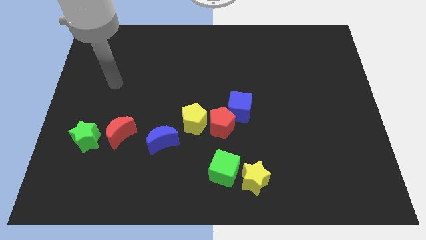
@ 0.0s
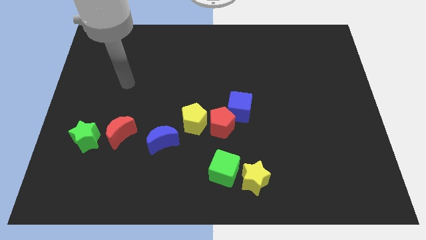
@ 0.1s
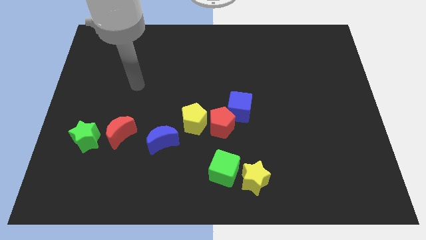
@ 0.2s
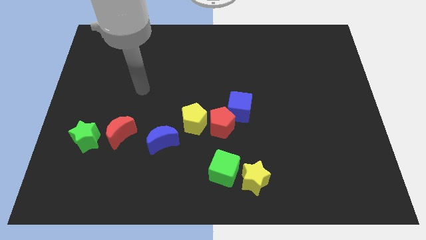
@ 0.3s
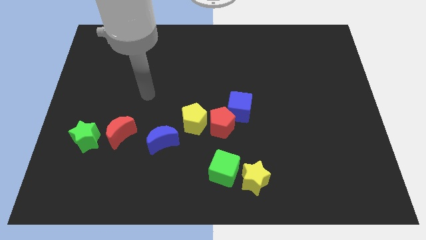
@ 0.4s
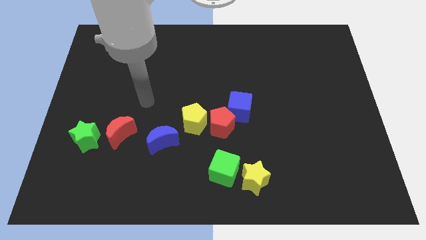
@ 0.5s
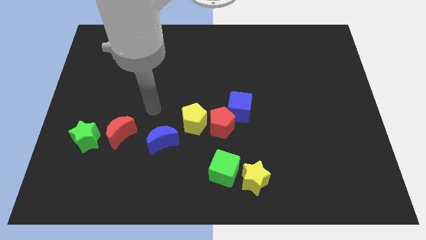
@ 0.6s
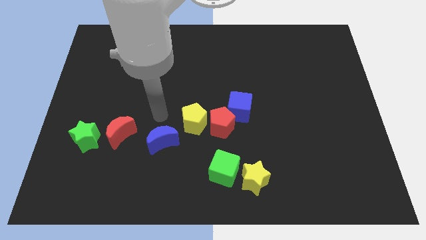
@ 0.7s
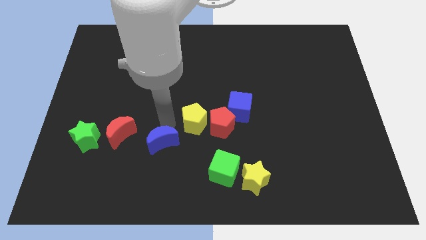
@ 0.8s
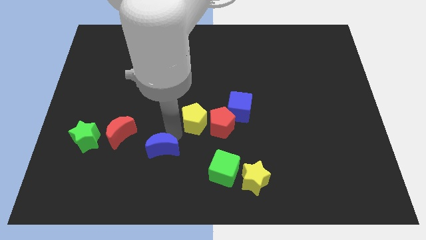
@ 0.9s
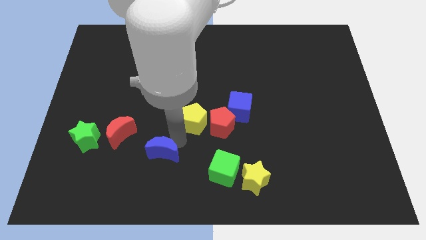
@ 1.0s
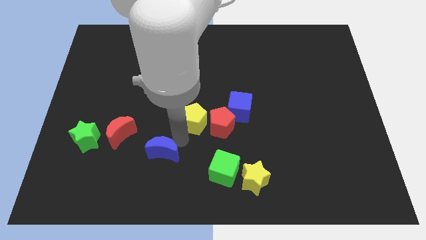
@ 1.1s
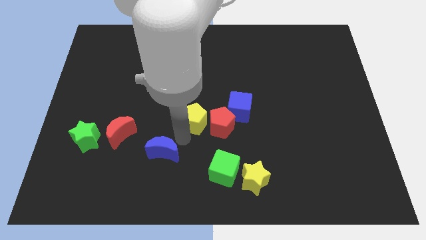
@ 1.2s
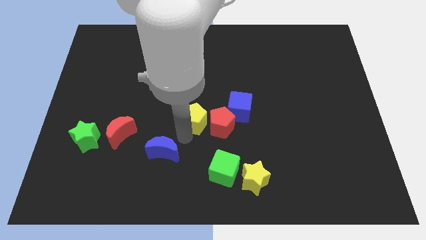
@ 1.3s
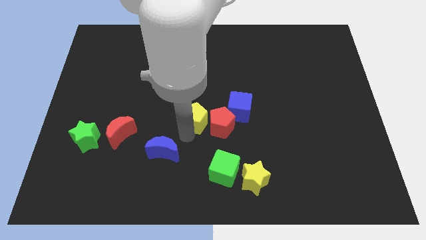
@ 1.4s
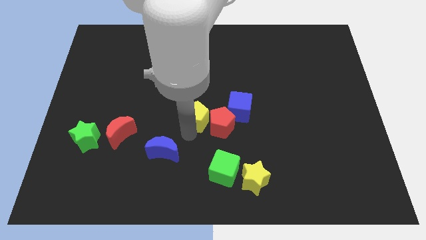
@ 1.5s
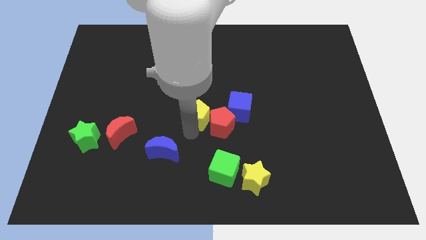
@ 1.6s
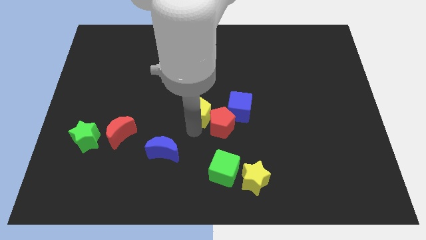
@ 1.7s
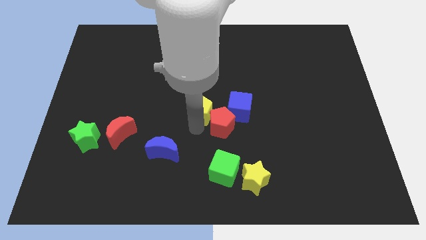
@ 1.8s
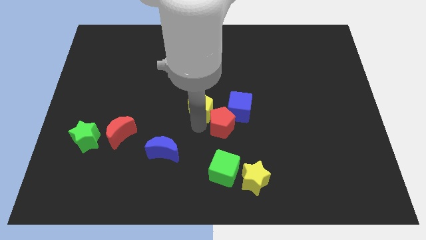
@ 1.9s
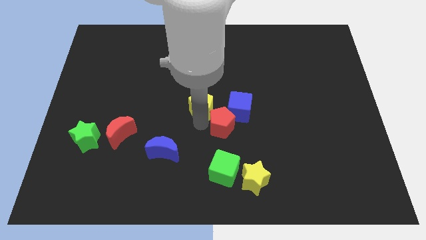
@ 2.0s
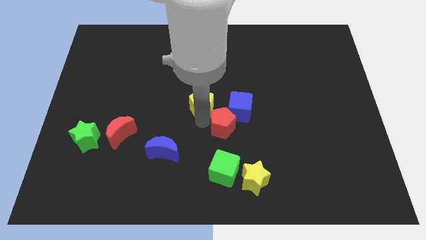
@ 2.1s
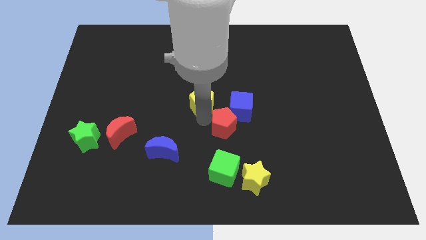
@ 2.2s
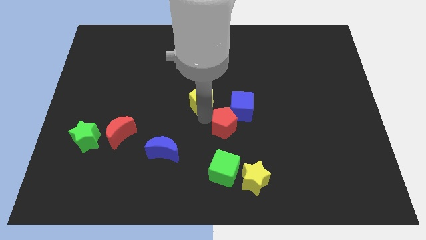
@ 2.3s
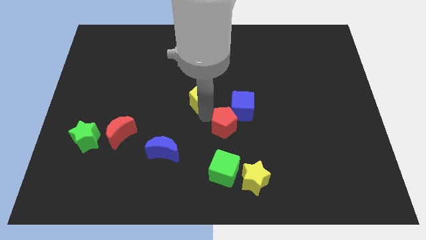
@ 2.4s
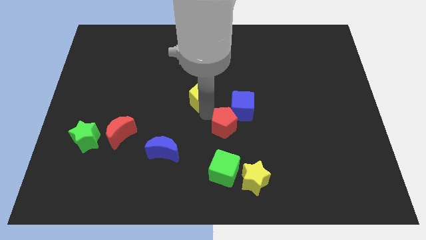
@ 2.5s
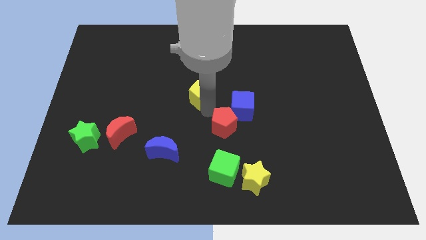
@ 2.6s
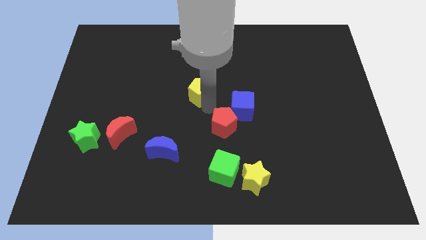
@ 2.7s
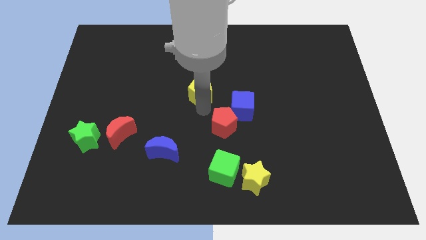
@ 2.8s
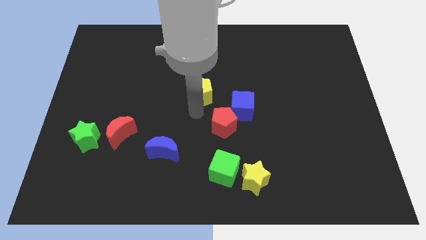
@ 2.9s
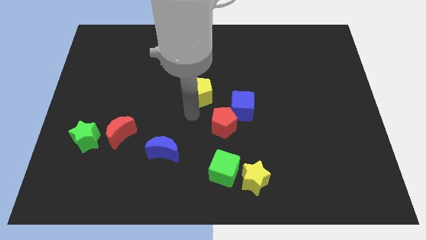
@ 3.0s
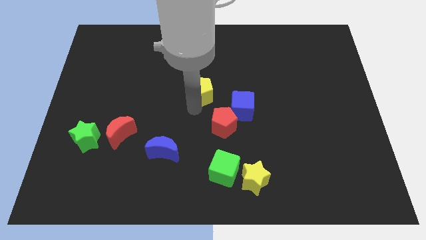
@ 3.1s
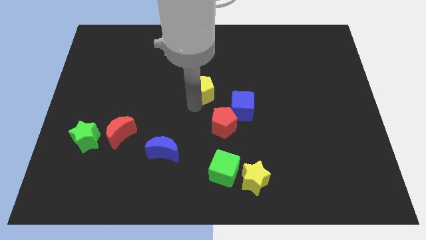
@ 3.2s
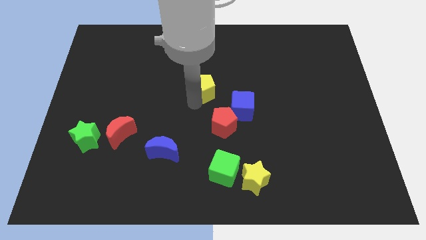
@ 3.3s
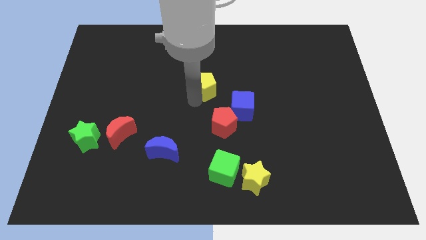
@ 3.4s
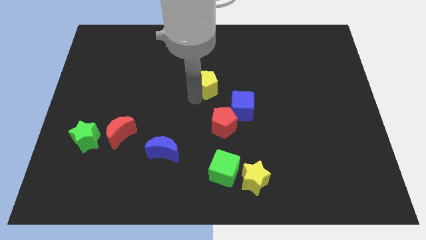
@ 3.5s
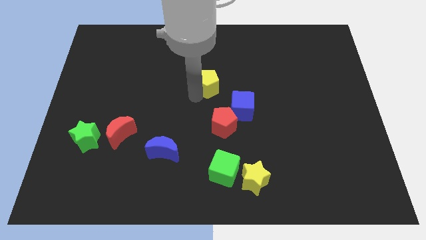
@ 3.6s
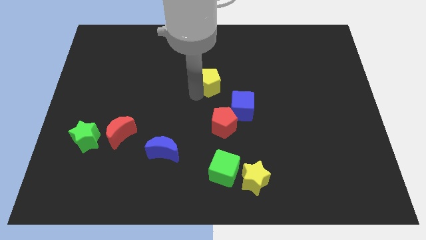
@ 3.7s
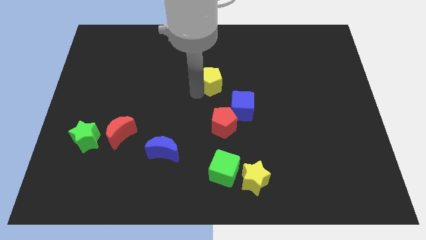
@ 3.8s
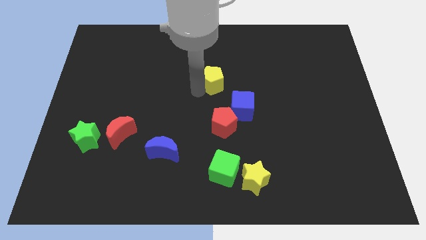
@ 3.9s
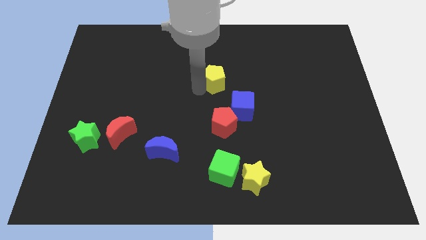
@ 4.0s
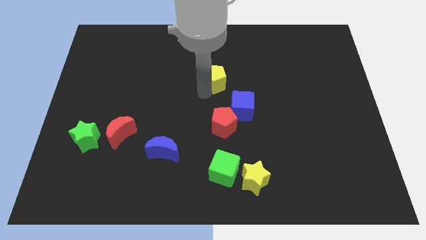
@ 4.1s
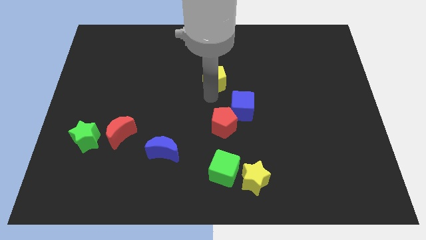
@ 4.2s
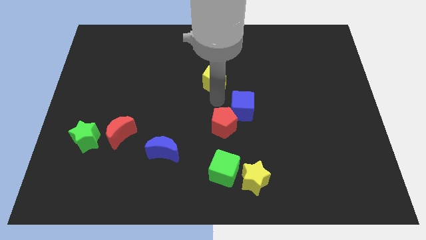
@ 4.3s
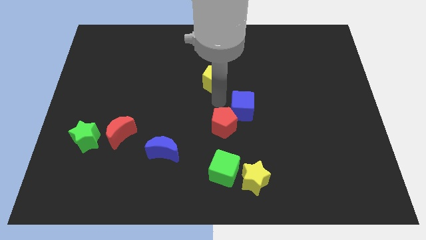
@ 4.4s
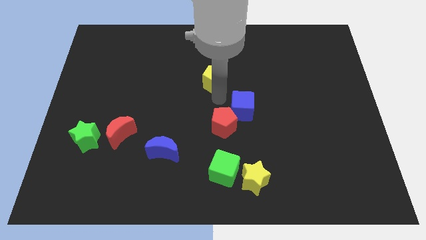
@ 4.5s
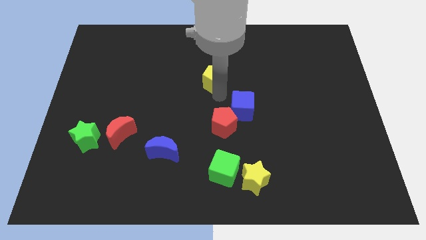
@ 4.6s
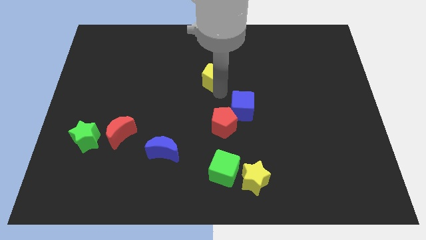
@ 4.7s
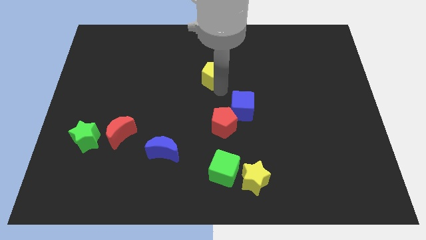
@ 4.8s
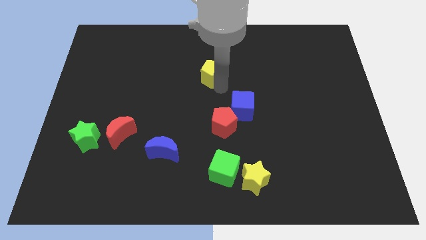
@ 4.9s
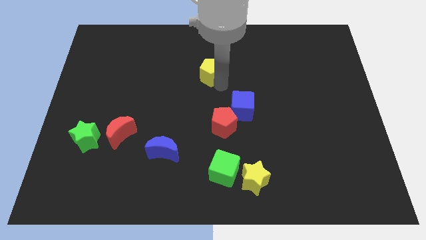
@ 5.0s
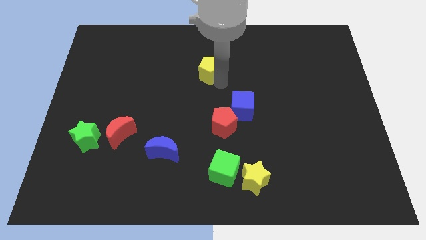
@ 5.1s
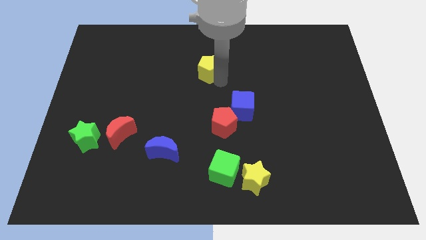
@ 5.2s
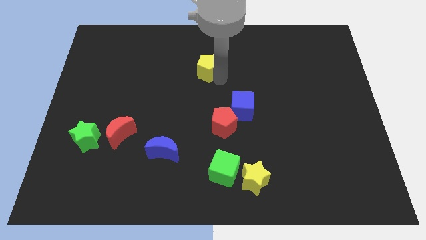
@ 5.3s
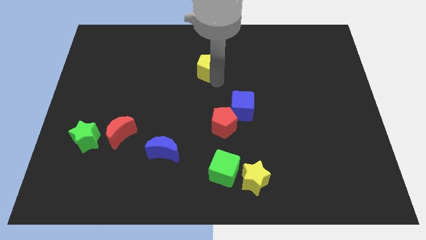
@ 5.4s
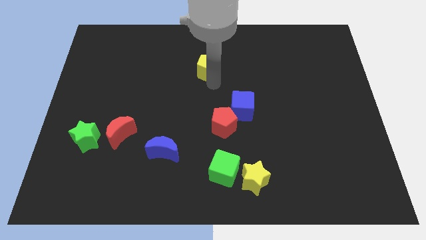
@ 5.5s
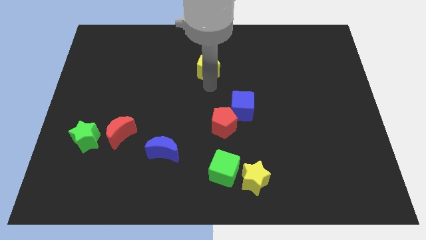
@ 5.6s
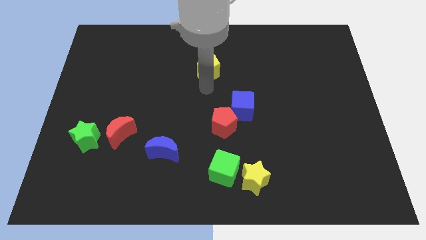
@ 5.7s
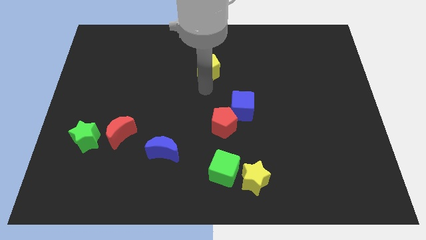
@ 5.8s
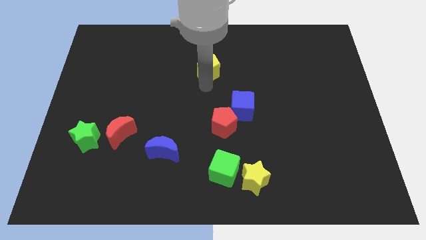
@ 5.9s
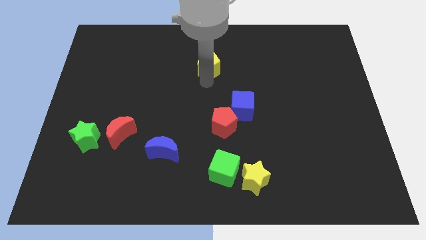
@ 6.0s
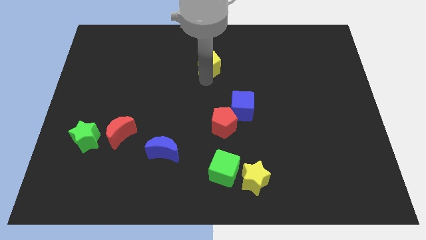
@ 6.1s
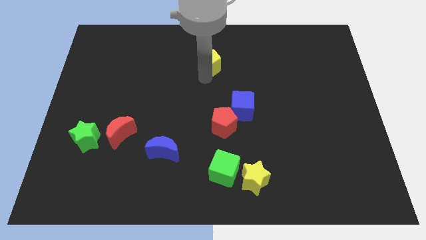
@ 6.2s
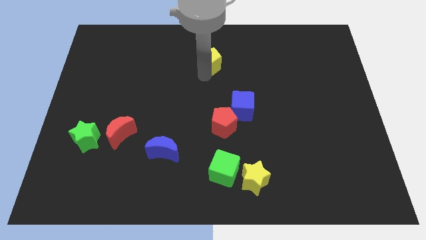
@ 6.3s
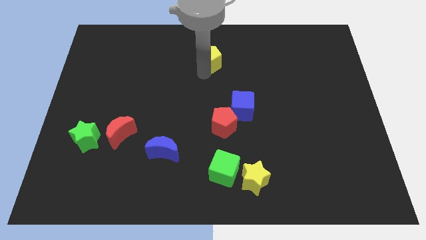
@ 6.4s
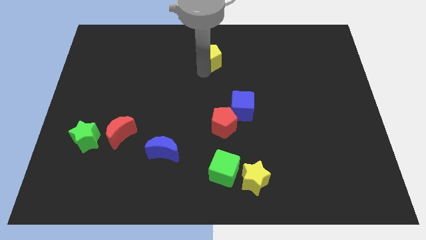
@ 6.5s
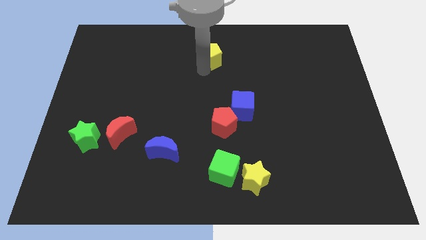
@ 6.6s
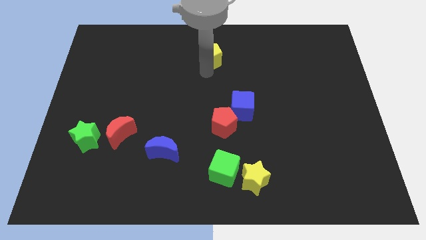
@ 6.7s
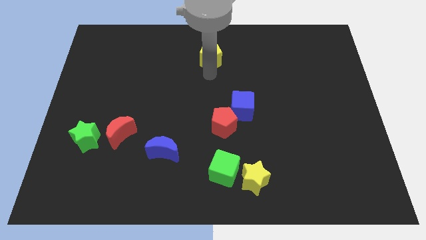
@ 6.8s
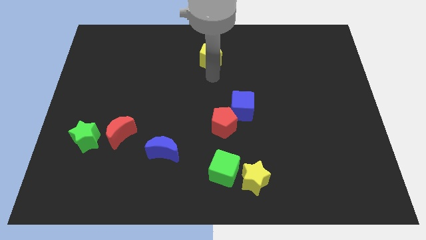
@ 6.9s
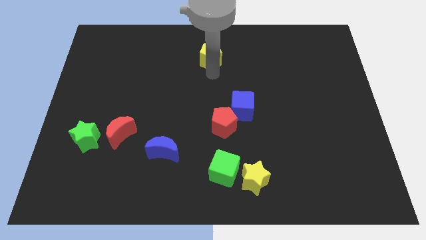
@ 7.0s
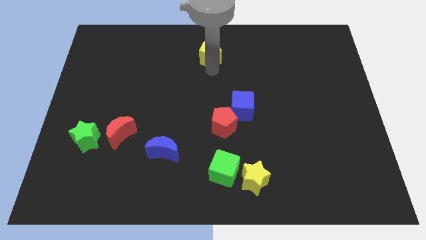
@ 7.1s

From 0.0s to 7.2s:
move the yellow pentagon to the top
